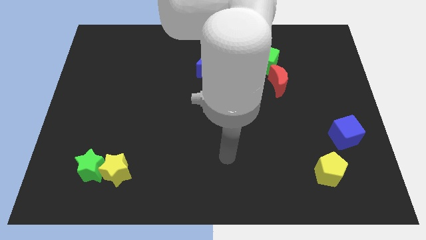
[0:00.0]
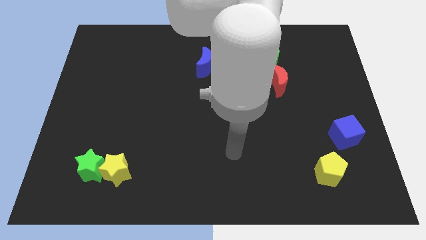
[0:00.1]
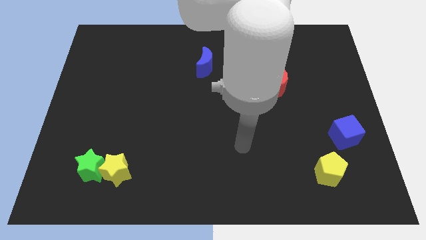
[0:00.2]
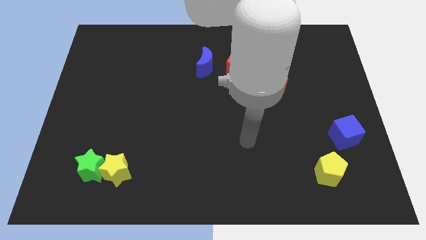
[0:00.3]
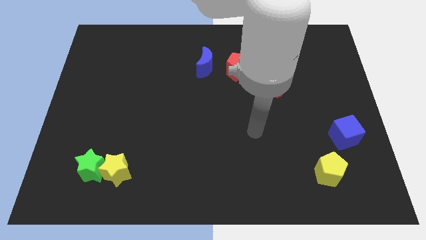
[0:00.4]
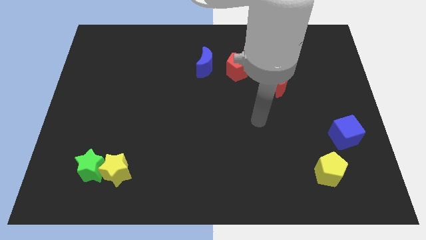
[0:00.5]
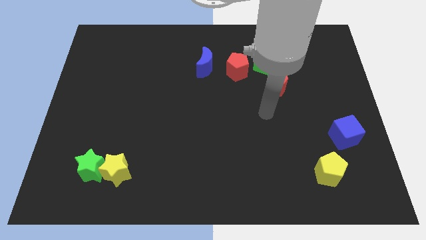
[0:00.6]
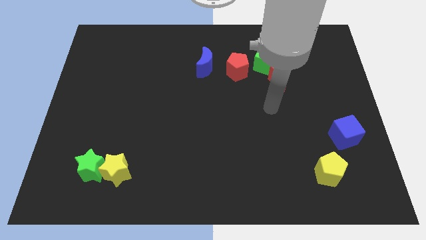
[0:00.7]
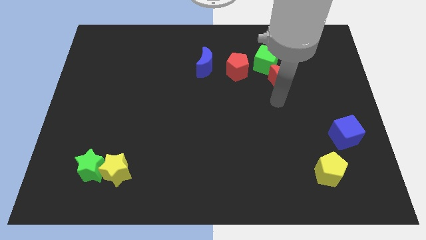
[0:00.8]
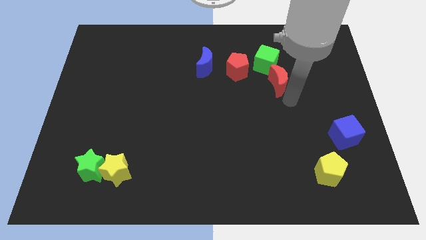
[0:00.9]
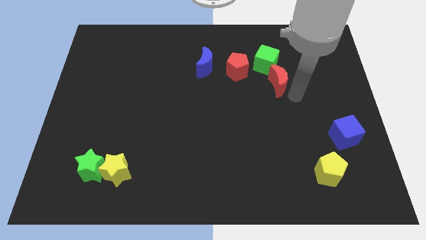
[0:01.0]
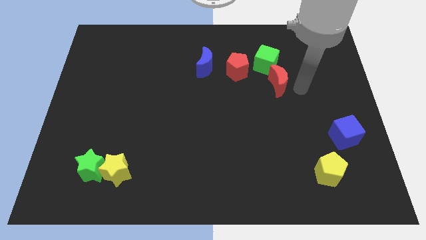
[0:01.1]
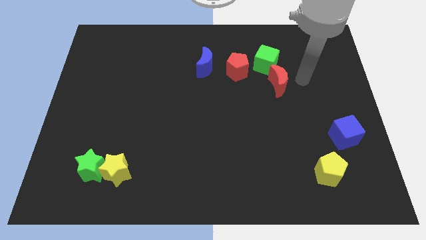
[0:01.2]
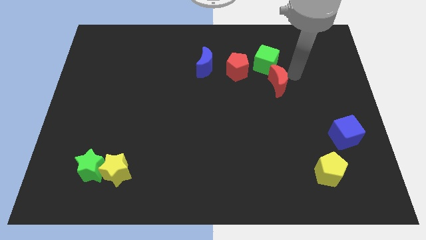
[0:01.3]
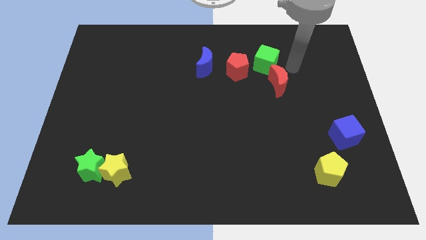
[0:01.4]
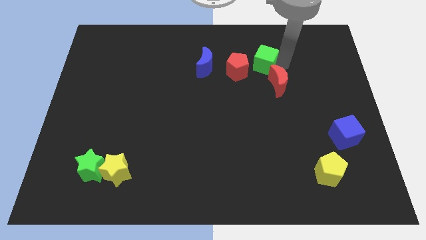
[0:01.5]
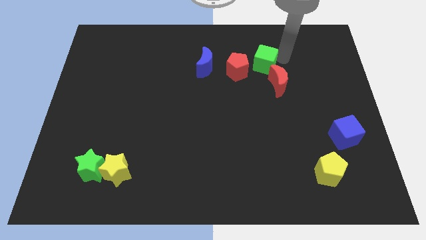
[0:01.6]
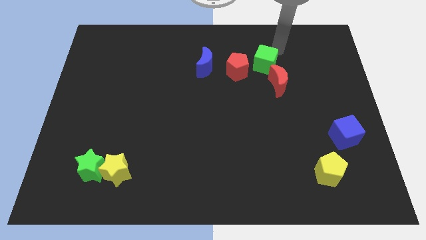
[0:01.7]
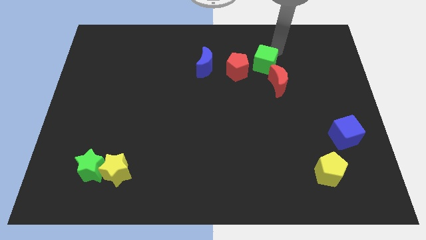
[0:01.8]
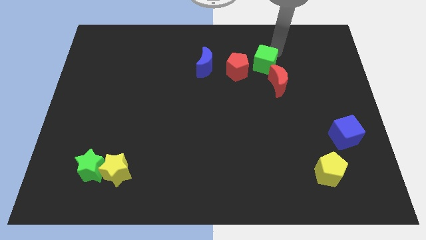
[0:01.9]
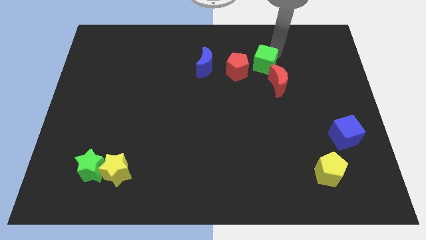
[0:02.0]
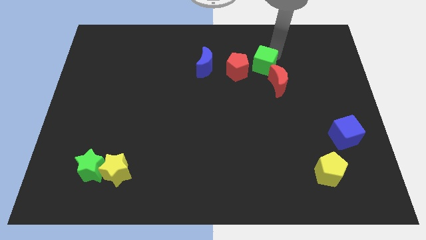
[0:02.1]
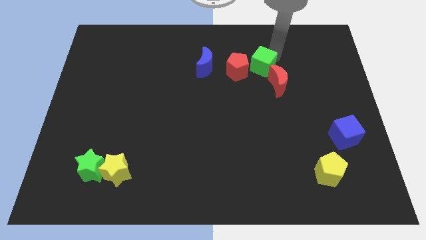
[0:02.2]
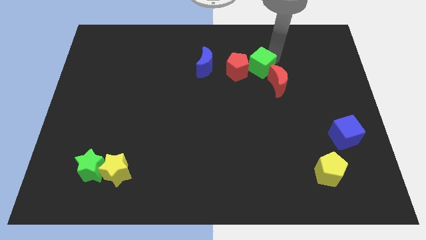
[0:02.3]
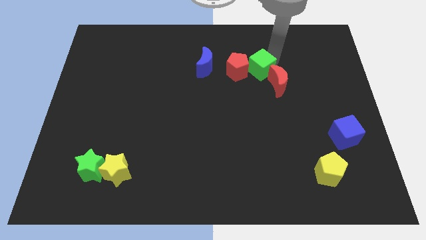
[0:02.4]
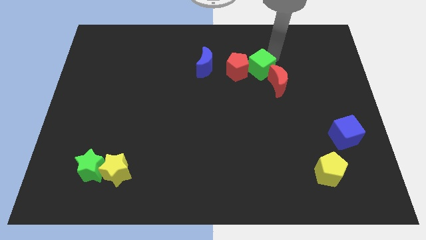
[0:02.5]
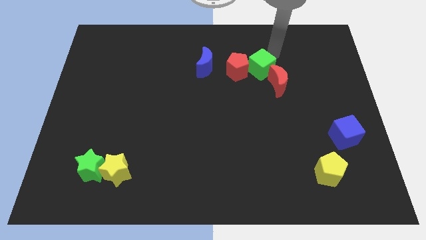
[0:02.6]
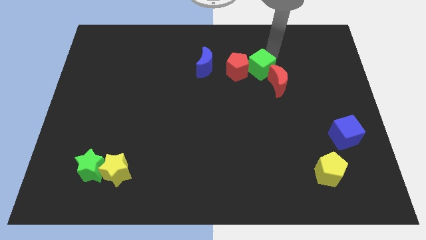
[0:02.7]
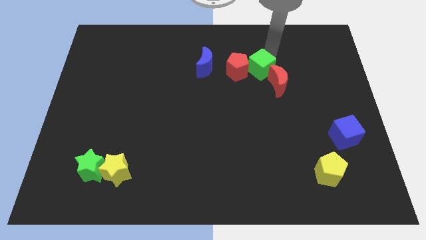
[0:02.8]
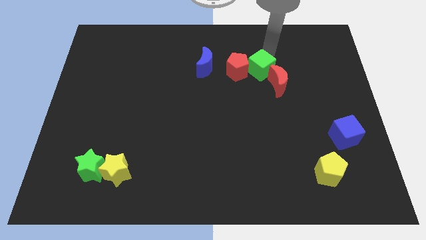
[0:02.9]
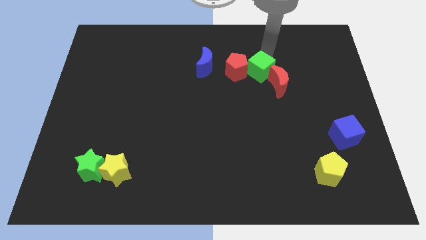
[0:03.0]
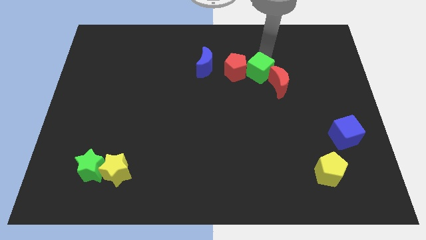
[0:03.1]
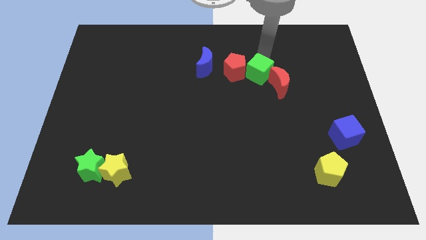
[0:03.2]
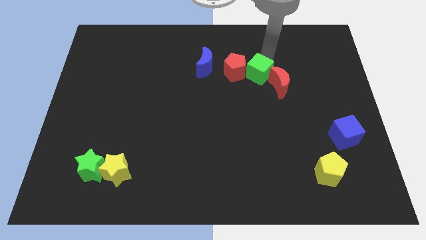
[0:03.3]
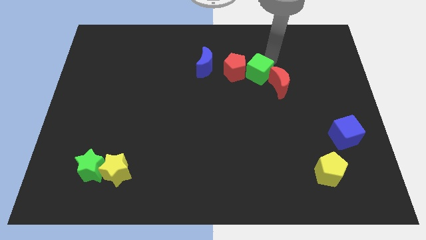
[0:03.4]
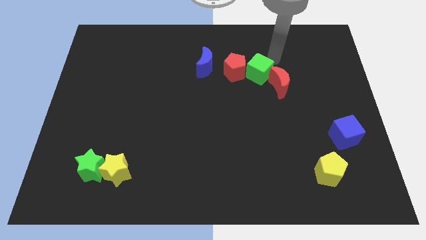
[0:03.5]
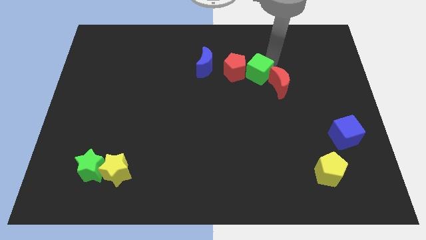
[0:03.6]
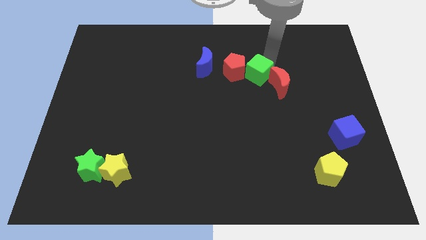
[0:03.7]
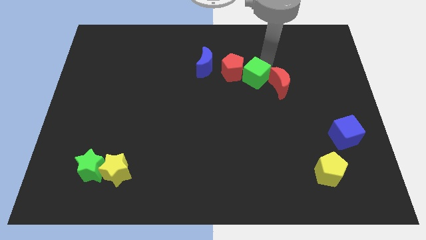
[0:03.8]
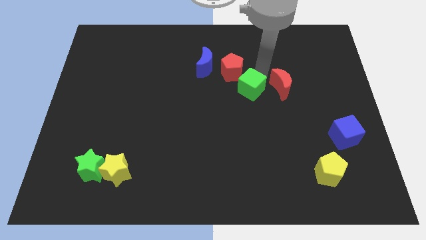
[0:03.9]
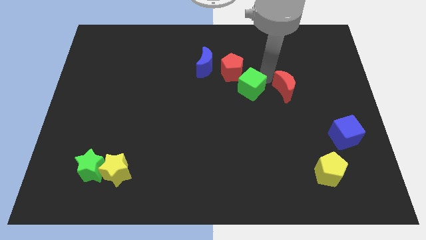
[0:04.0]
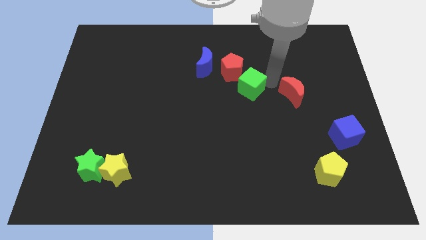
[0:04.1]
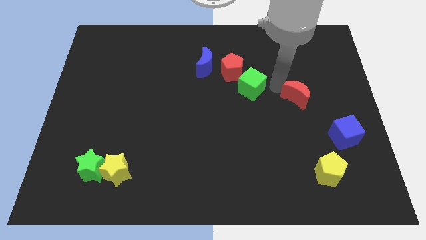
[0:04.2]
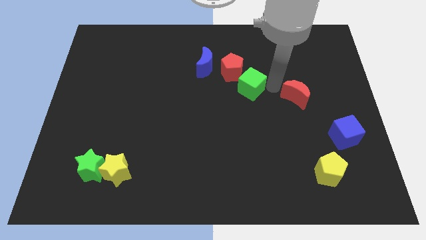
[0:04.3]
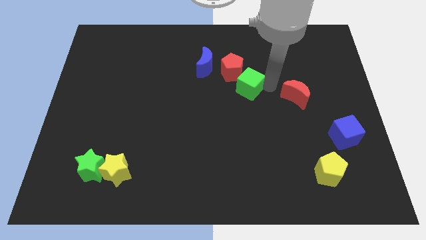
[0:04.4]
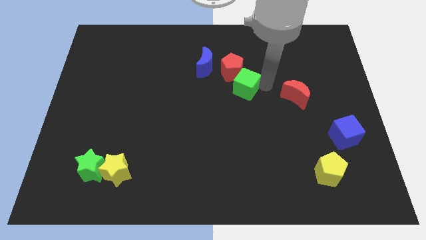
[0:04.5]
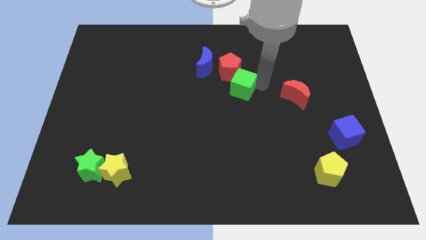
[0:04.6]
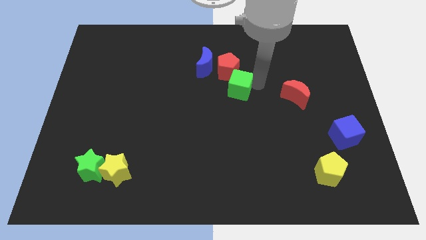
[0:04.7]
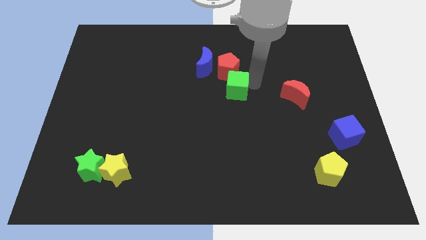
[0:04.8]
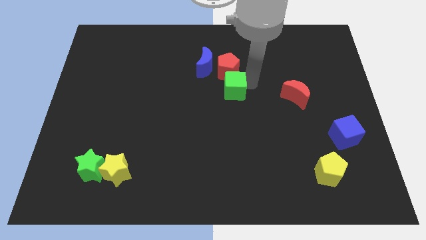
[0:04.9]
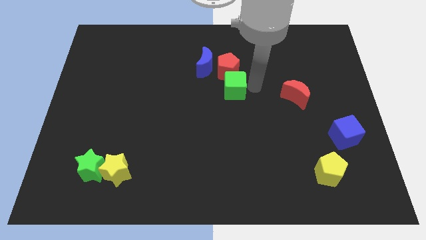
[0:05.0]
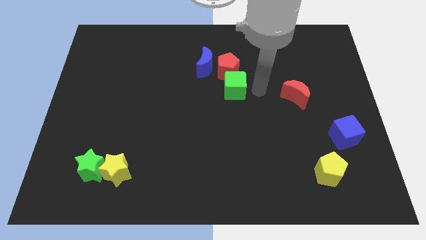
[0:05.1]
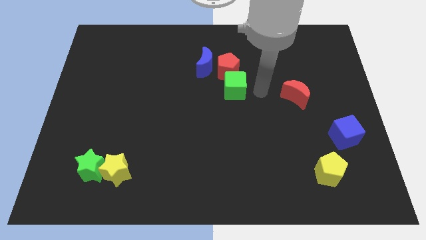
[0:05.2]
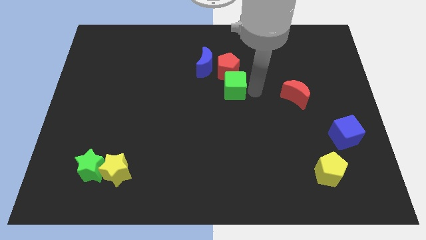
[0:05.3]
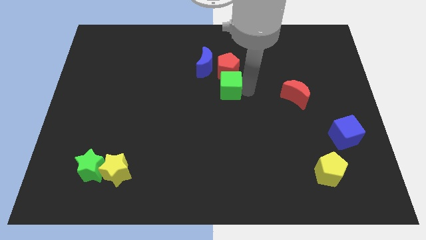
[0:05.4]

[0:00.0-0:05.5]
move the green cube diagonally down and to the left of the red pentagon

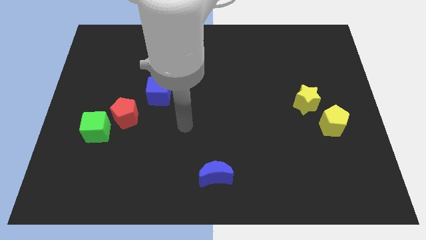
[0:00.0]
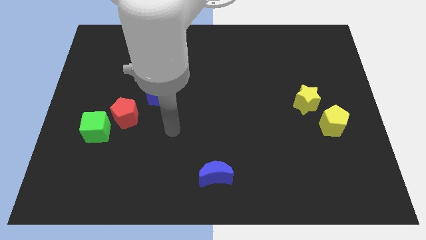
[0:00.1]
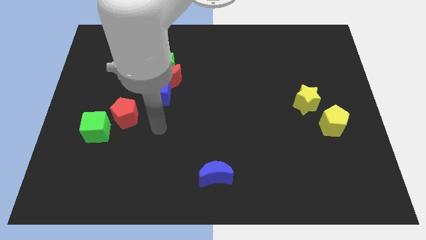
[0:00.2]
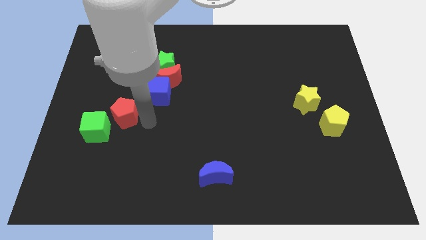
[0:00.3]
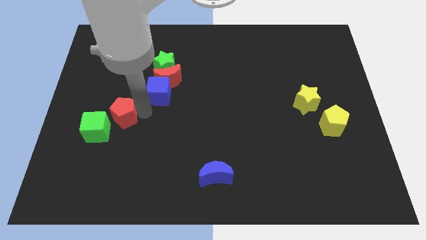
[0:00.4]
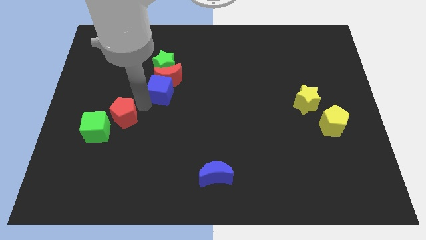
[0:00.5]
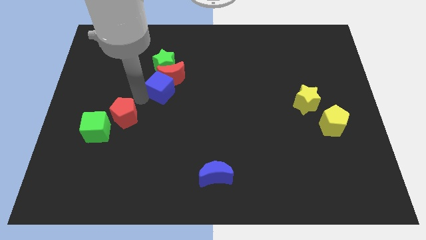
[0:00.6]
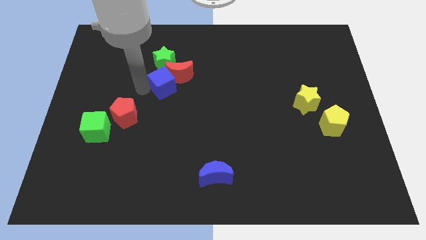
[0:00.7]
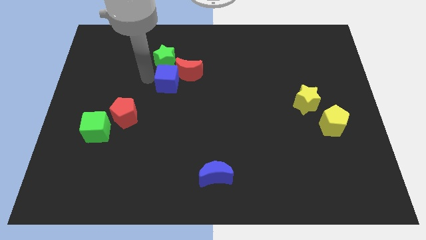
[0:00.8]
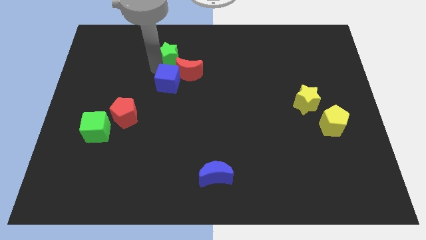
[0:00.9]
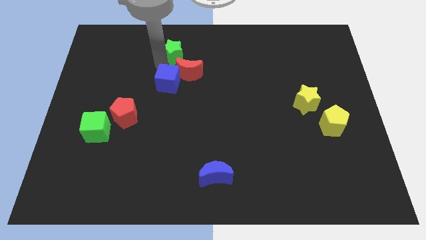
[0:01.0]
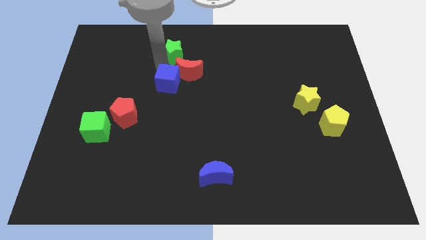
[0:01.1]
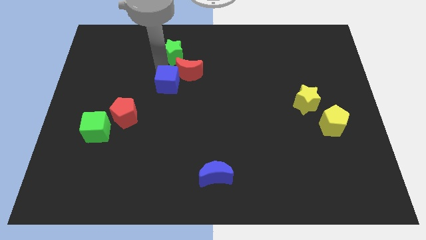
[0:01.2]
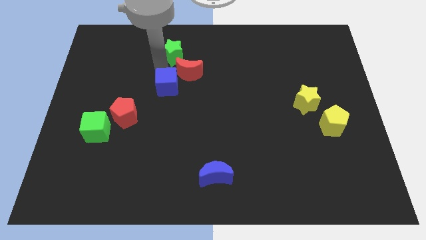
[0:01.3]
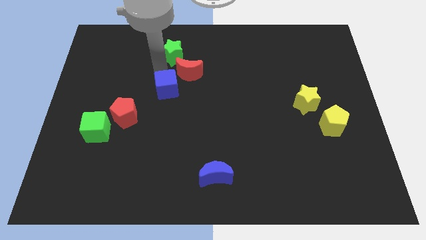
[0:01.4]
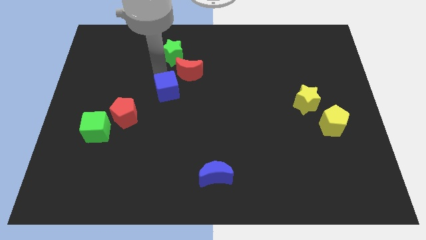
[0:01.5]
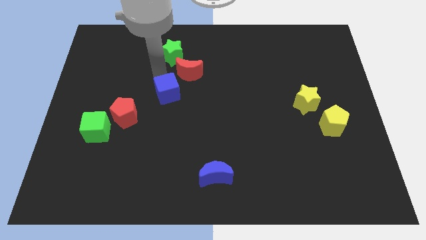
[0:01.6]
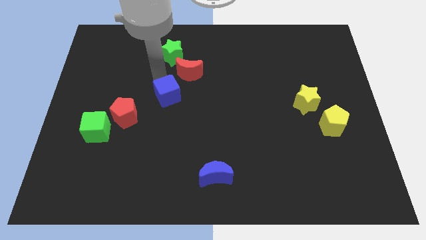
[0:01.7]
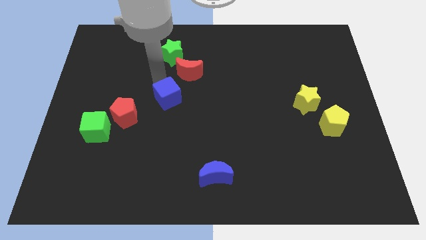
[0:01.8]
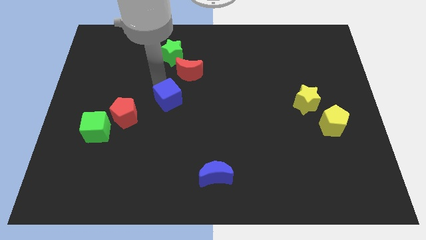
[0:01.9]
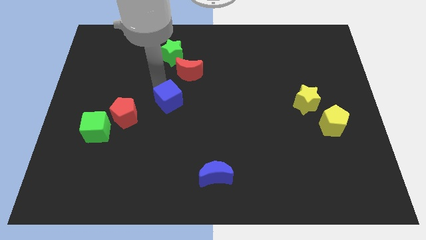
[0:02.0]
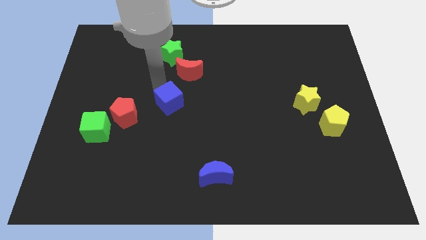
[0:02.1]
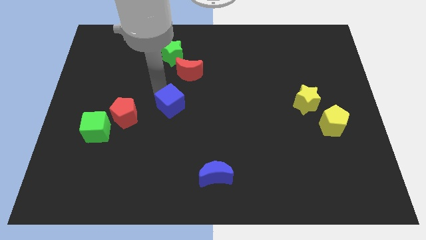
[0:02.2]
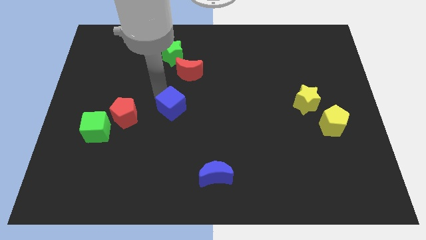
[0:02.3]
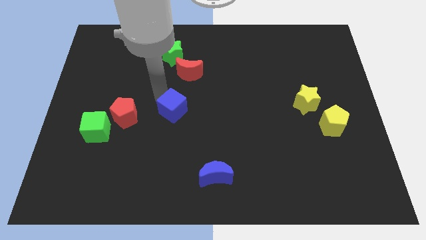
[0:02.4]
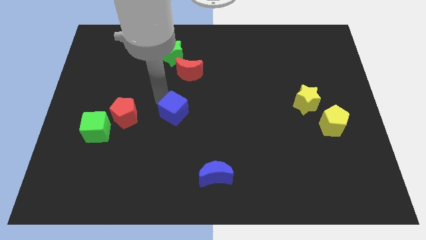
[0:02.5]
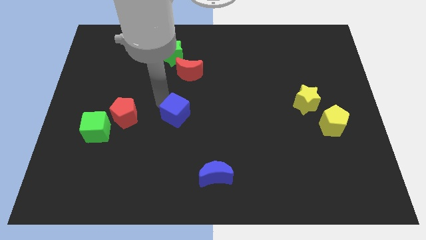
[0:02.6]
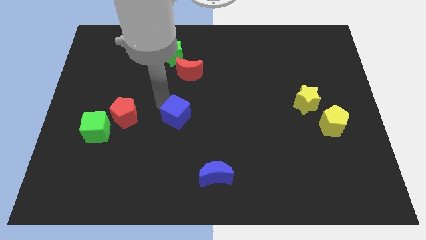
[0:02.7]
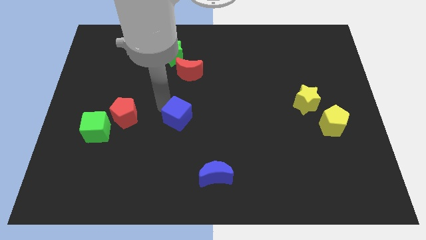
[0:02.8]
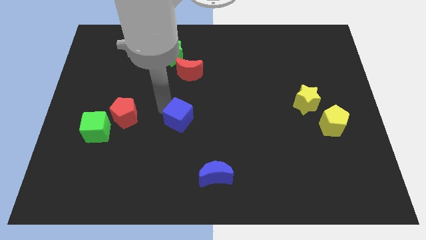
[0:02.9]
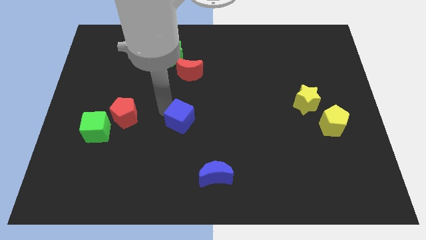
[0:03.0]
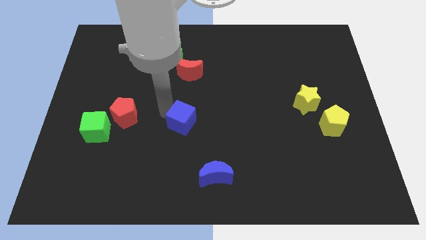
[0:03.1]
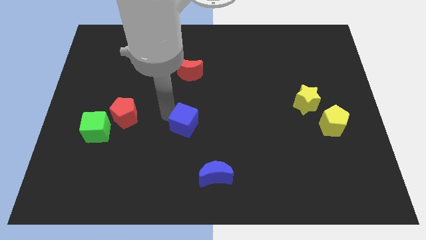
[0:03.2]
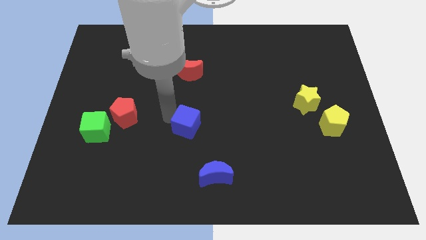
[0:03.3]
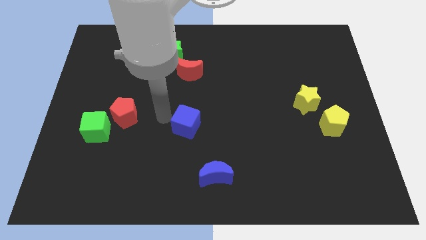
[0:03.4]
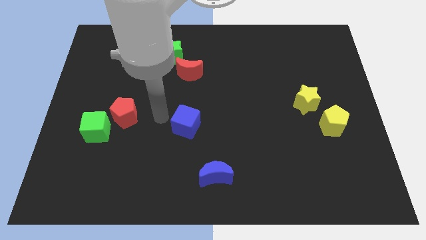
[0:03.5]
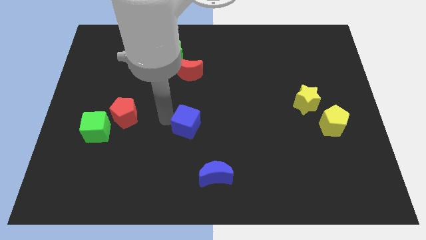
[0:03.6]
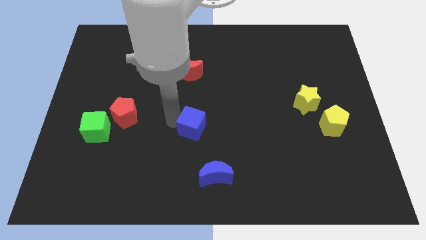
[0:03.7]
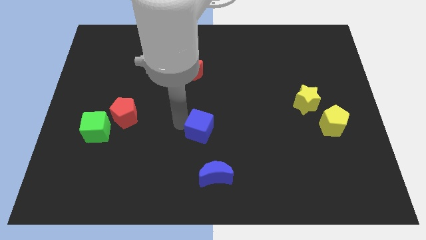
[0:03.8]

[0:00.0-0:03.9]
slide the blue cube to the top of the blue moon
